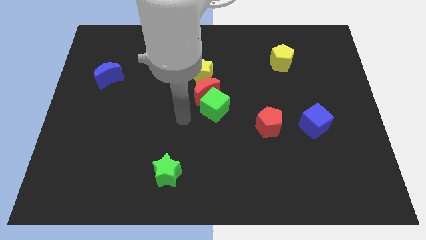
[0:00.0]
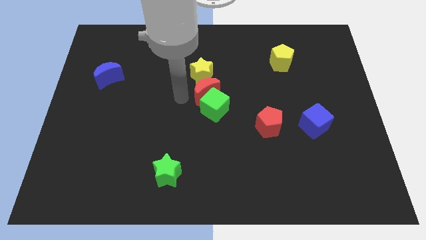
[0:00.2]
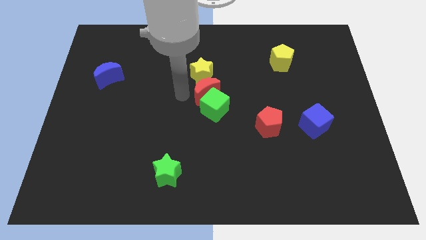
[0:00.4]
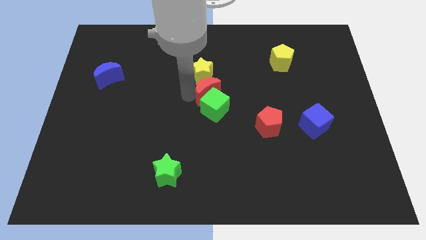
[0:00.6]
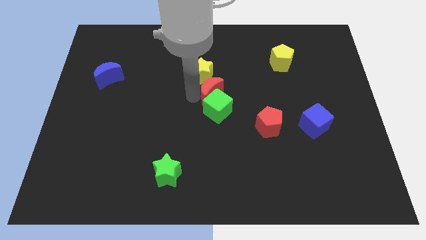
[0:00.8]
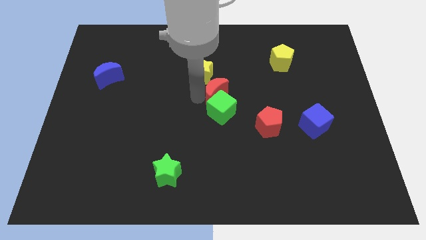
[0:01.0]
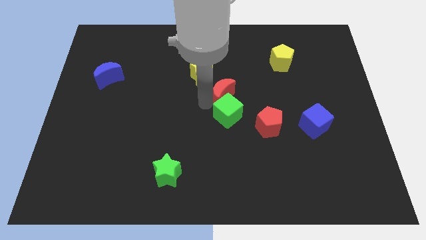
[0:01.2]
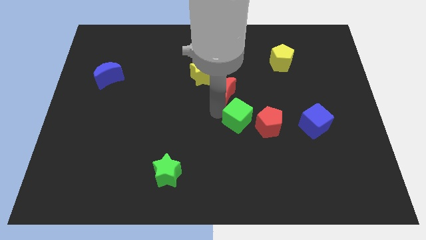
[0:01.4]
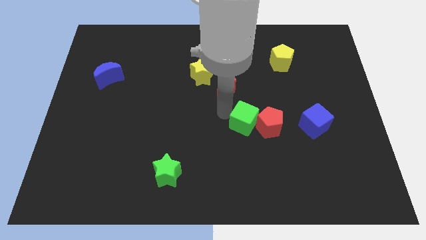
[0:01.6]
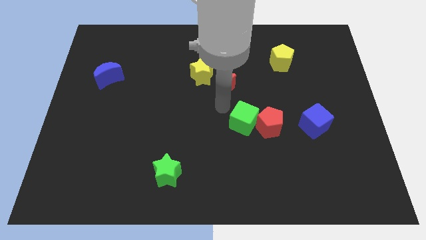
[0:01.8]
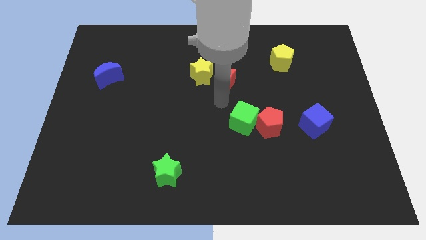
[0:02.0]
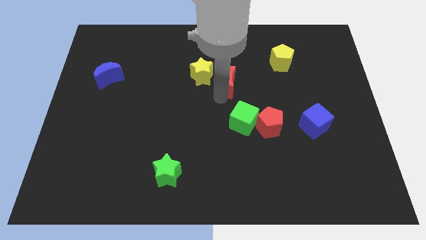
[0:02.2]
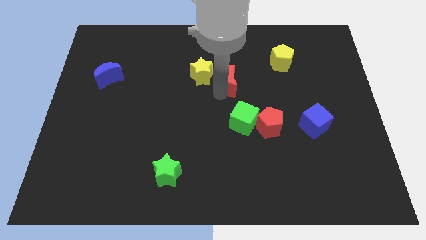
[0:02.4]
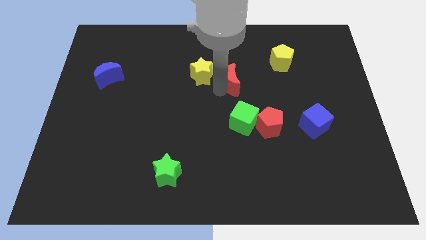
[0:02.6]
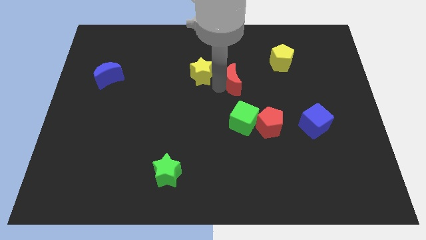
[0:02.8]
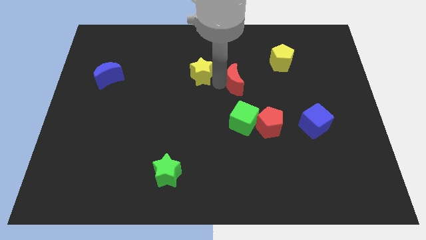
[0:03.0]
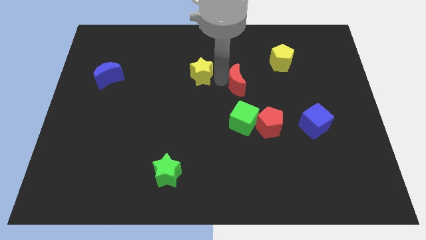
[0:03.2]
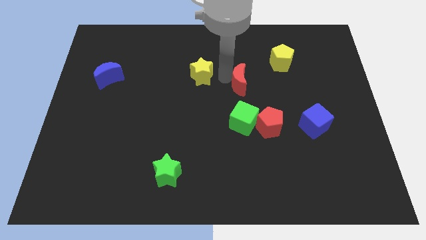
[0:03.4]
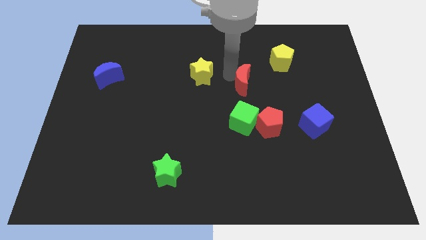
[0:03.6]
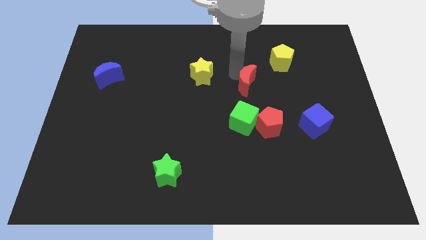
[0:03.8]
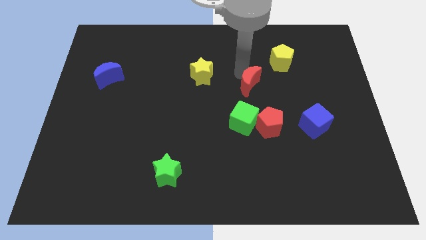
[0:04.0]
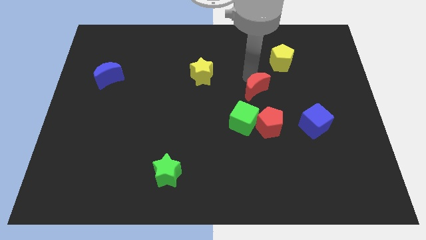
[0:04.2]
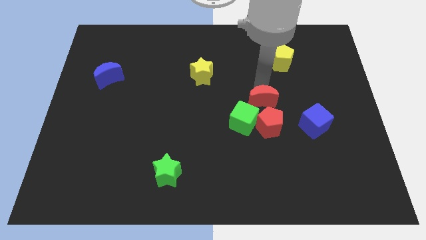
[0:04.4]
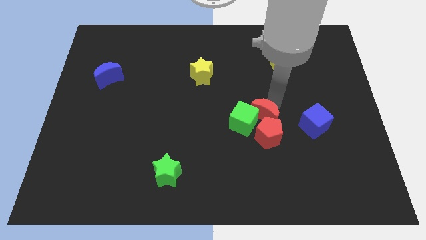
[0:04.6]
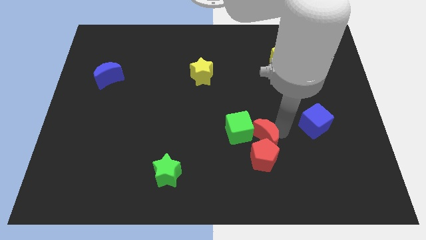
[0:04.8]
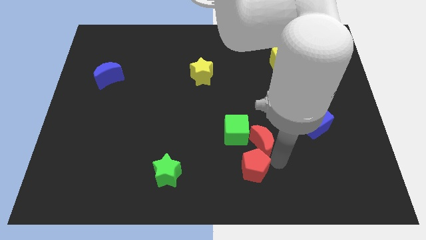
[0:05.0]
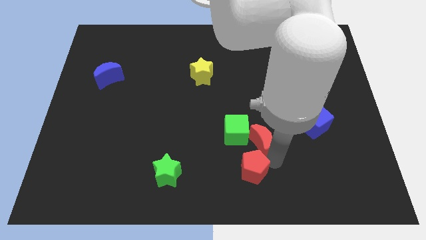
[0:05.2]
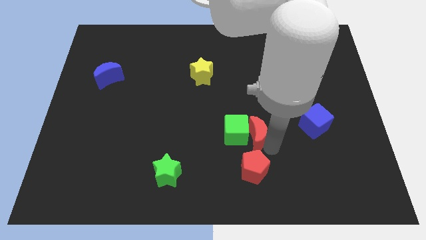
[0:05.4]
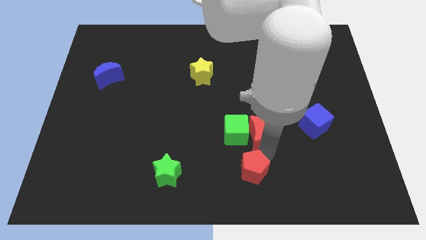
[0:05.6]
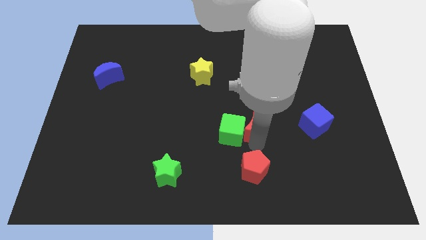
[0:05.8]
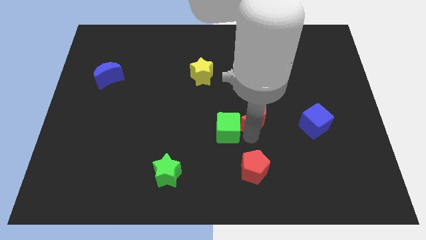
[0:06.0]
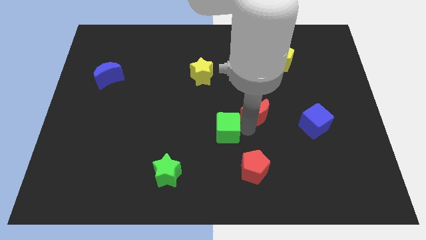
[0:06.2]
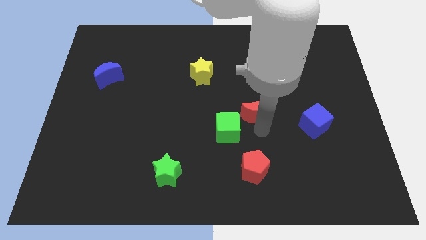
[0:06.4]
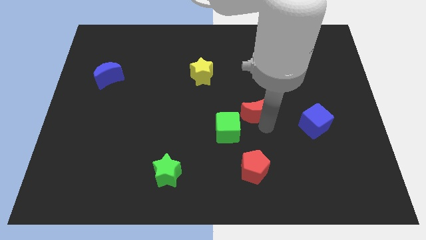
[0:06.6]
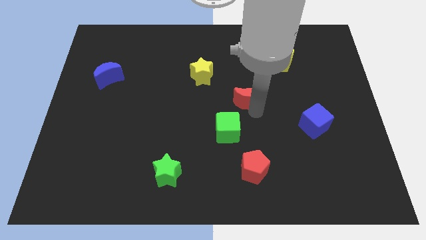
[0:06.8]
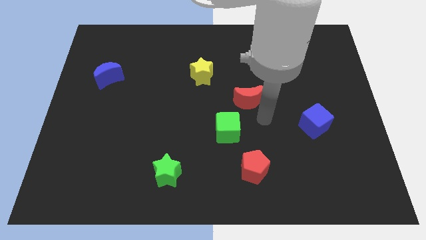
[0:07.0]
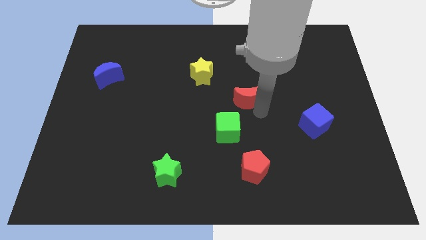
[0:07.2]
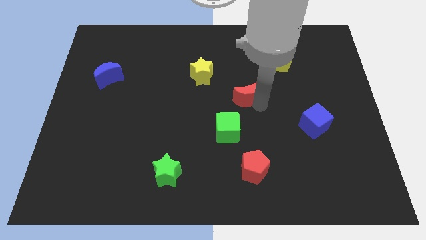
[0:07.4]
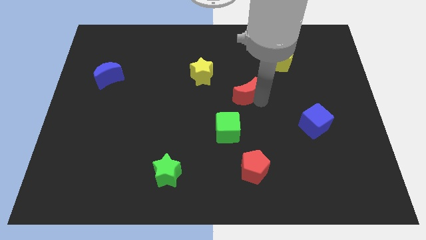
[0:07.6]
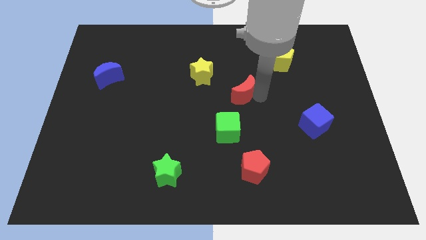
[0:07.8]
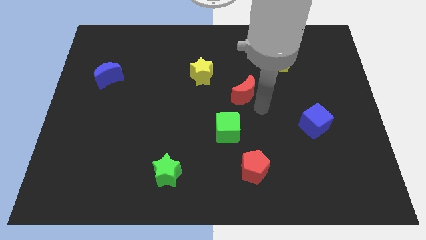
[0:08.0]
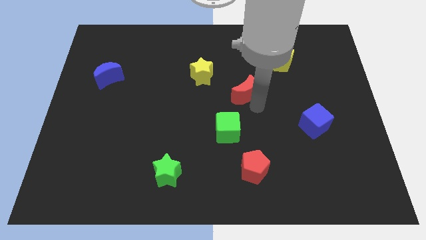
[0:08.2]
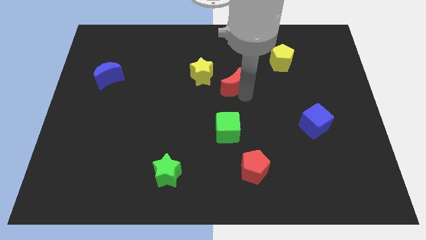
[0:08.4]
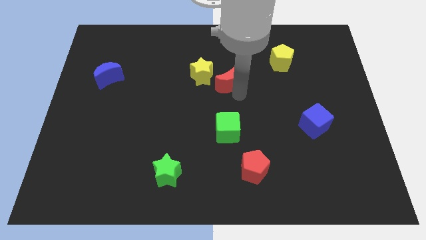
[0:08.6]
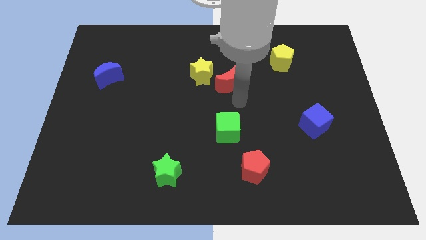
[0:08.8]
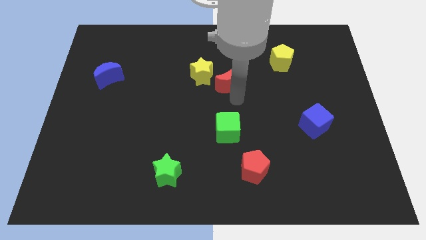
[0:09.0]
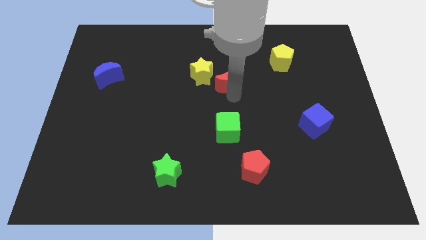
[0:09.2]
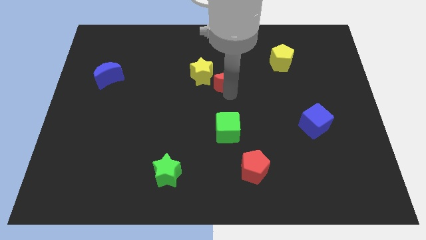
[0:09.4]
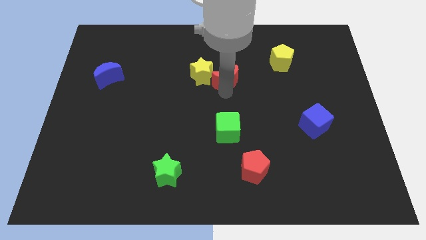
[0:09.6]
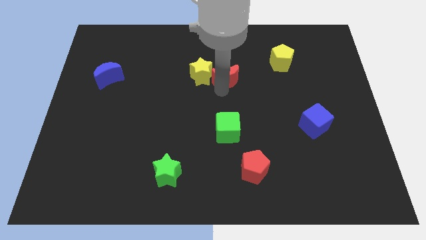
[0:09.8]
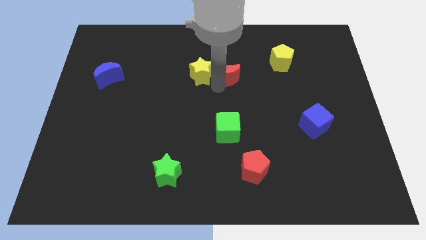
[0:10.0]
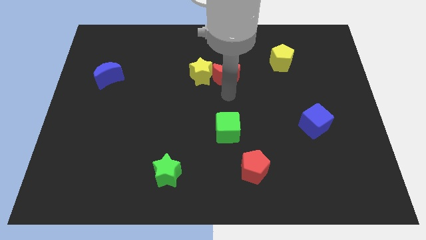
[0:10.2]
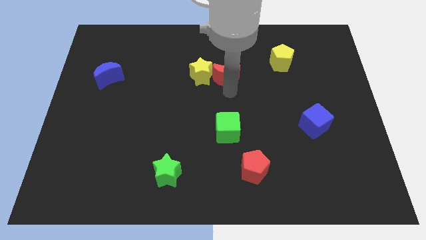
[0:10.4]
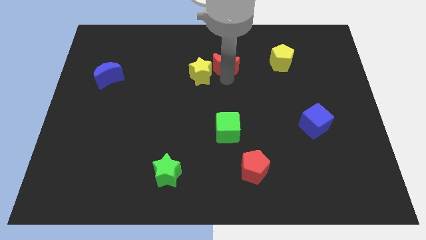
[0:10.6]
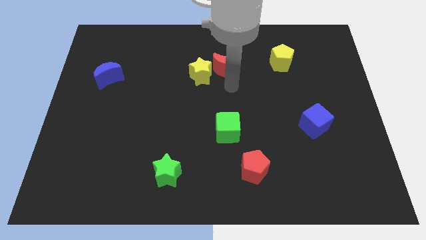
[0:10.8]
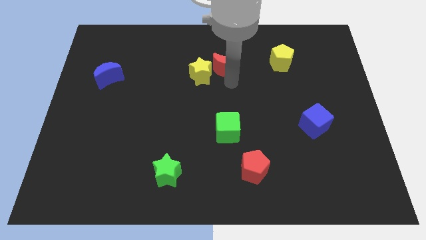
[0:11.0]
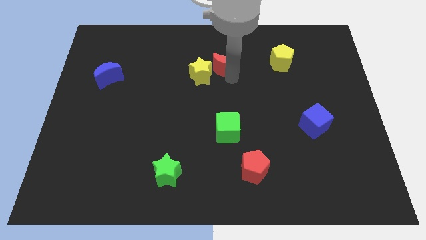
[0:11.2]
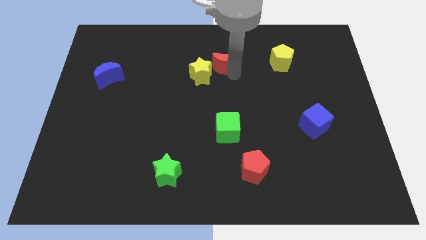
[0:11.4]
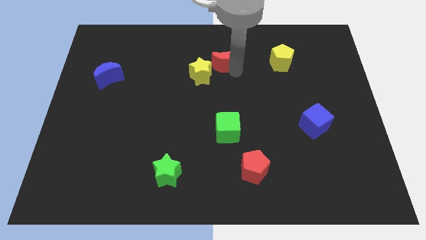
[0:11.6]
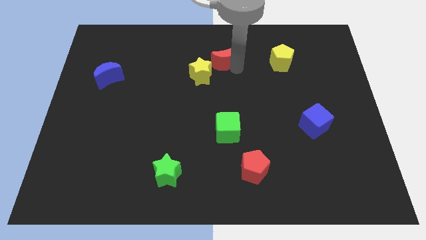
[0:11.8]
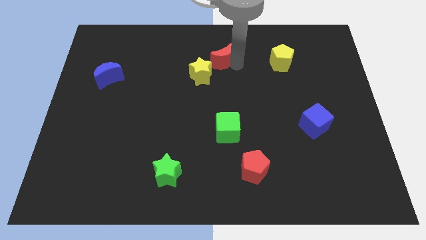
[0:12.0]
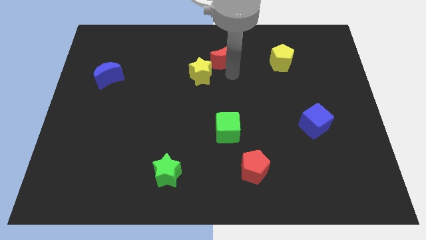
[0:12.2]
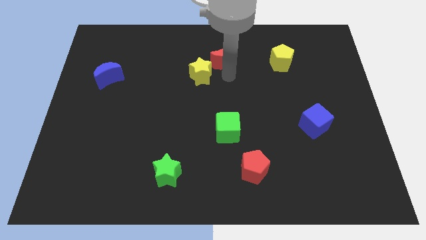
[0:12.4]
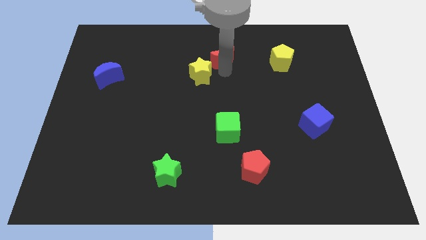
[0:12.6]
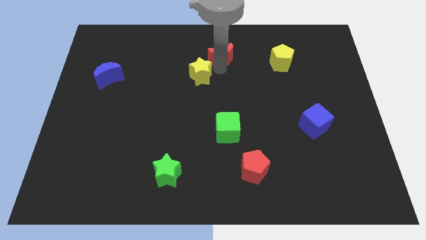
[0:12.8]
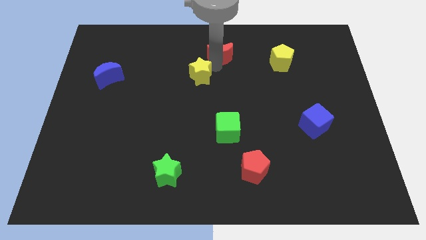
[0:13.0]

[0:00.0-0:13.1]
push the red moon to the top side
